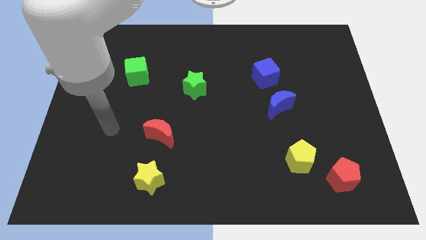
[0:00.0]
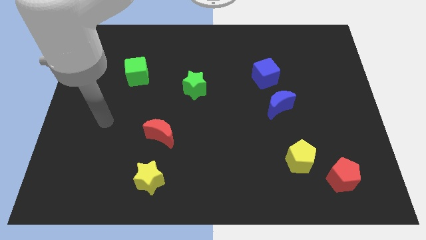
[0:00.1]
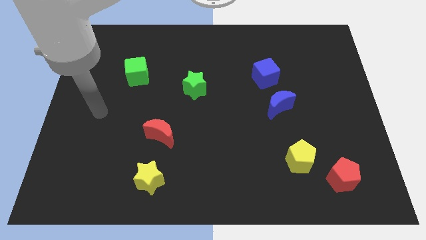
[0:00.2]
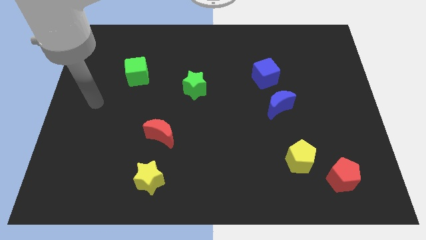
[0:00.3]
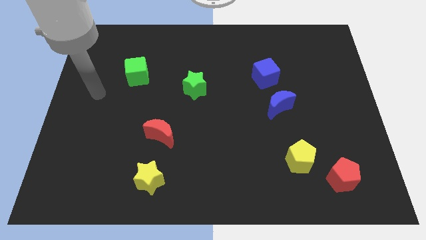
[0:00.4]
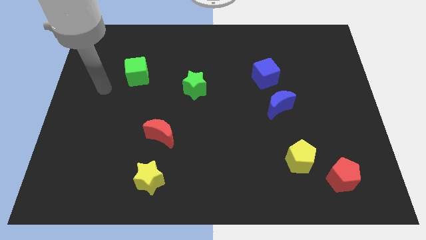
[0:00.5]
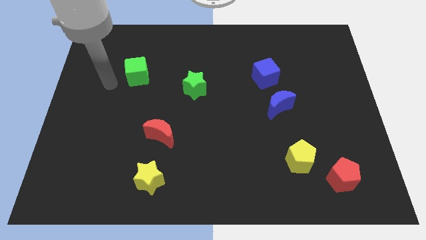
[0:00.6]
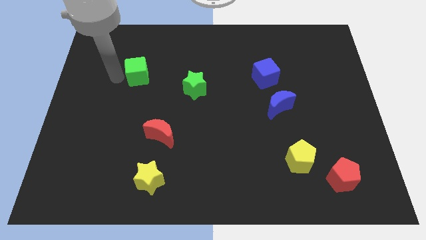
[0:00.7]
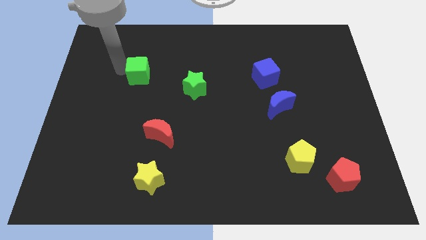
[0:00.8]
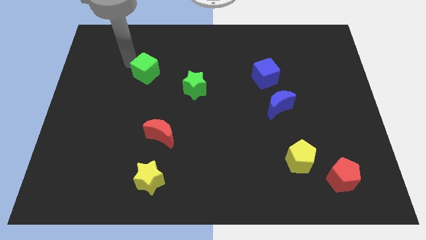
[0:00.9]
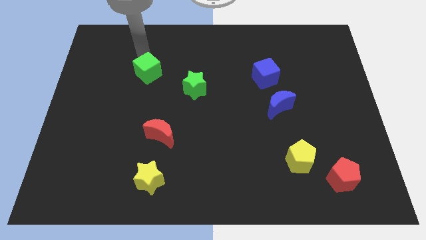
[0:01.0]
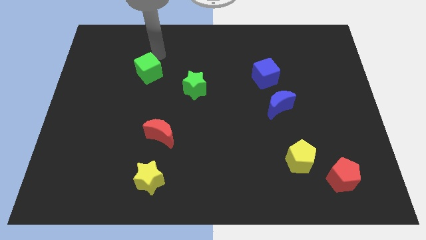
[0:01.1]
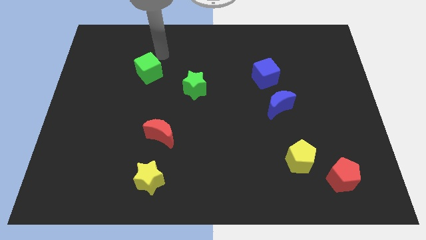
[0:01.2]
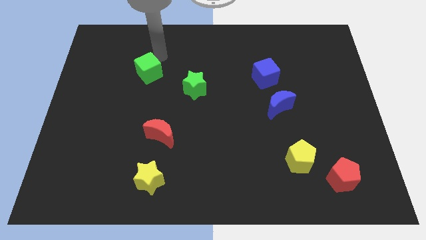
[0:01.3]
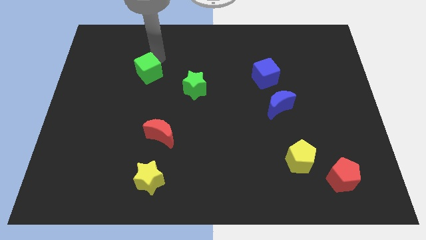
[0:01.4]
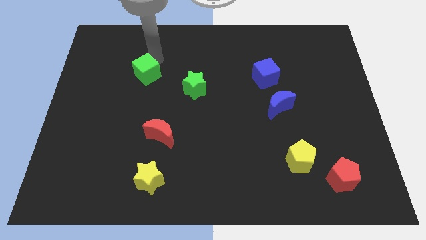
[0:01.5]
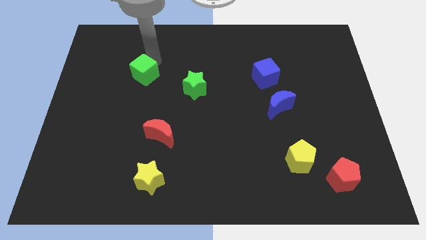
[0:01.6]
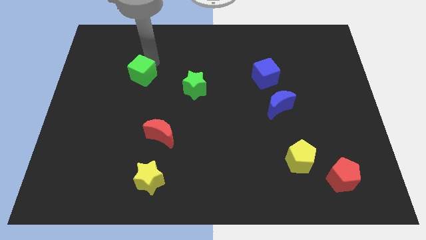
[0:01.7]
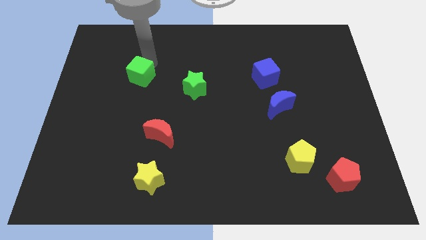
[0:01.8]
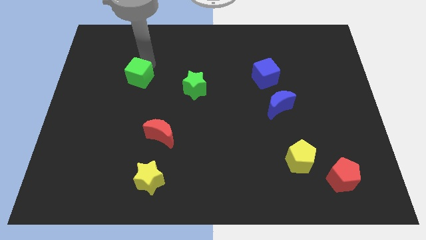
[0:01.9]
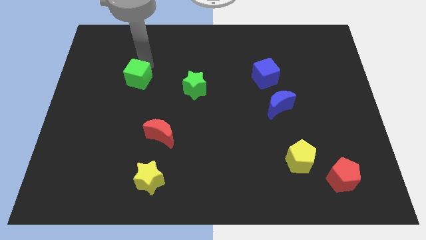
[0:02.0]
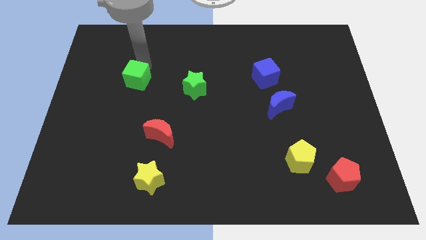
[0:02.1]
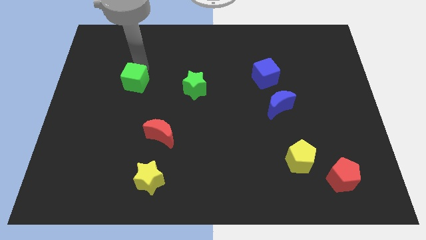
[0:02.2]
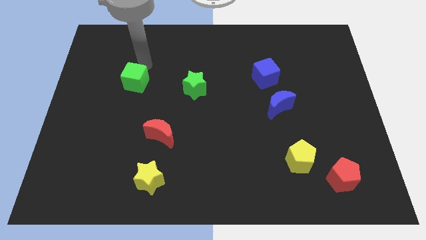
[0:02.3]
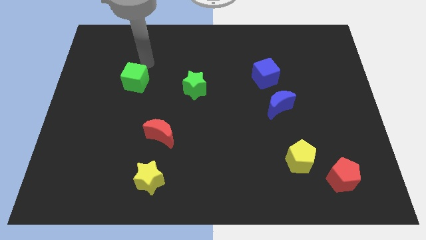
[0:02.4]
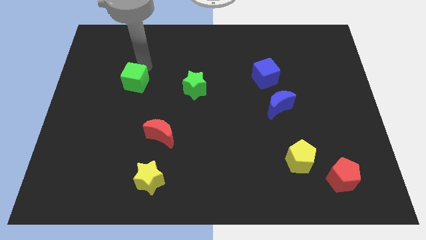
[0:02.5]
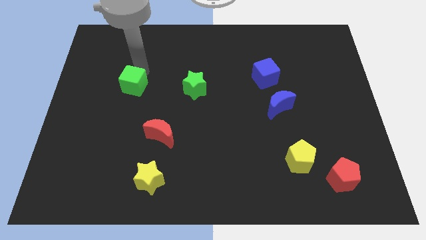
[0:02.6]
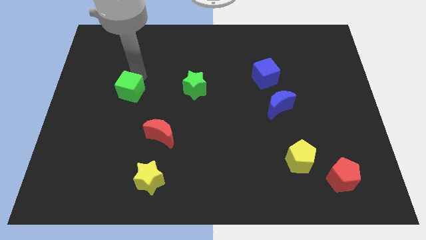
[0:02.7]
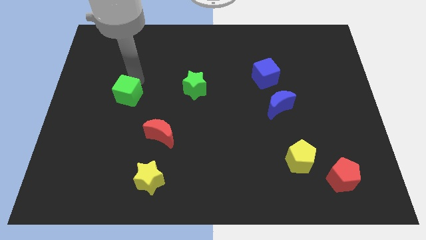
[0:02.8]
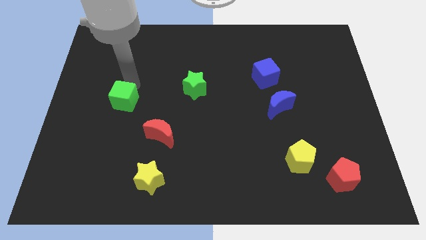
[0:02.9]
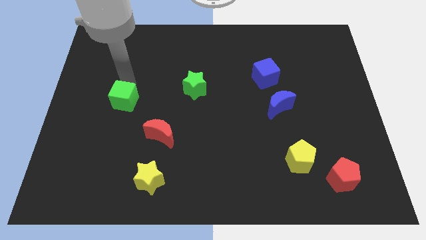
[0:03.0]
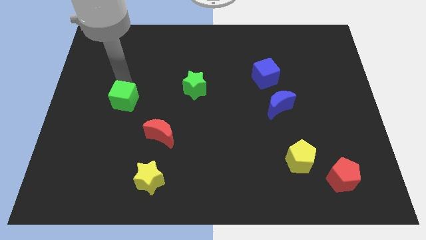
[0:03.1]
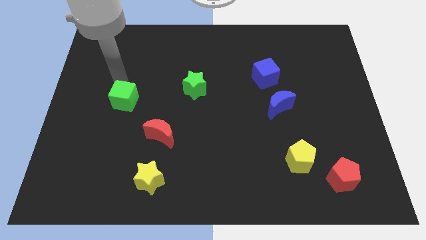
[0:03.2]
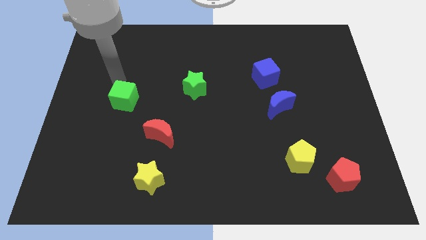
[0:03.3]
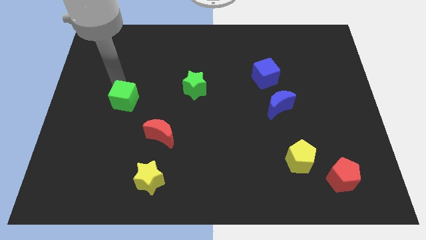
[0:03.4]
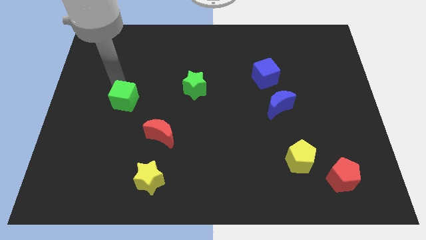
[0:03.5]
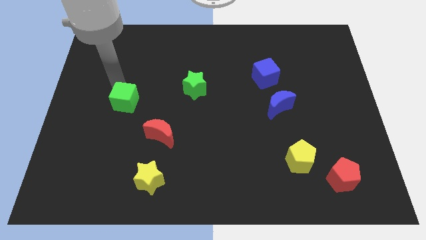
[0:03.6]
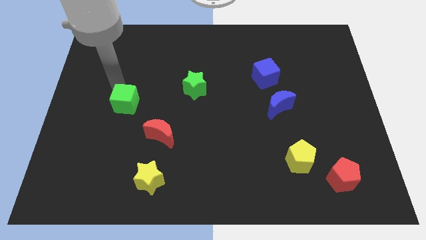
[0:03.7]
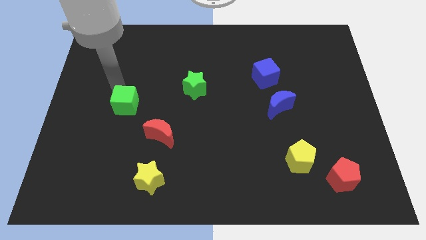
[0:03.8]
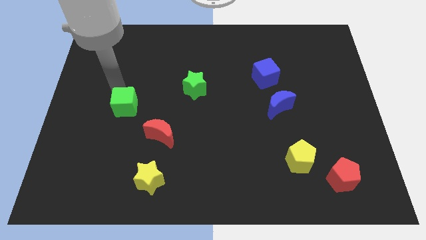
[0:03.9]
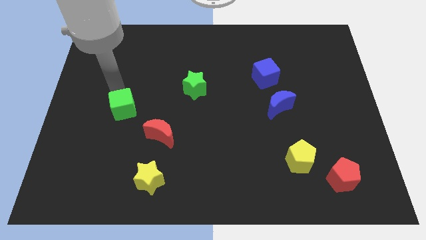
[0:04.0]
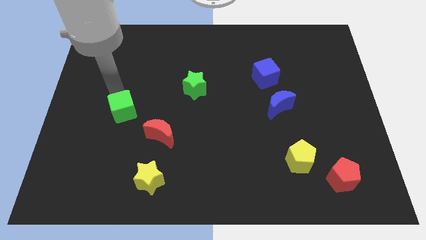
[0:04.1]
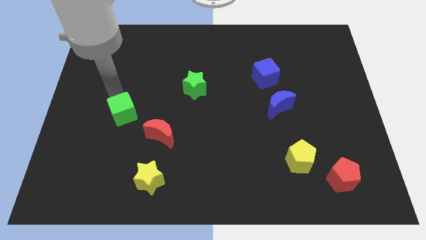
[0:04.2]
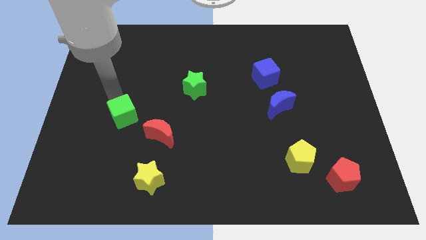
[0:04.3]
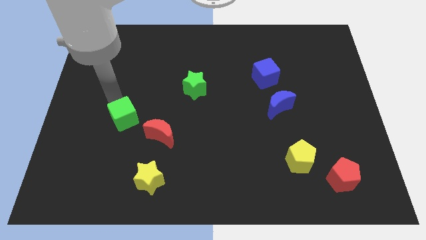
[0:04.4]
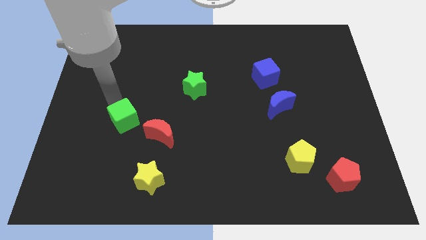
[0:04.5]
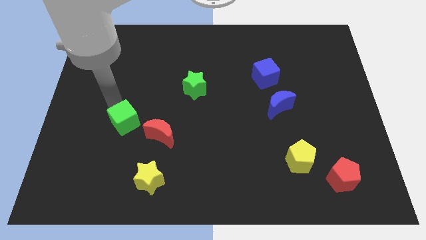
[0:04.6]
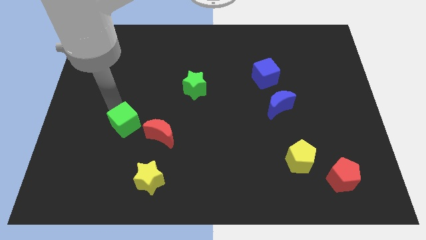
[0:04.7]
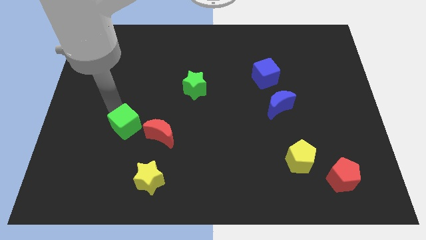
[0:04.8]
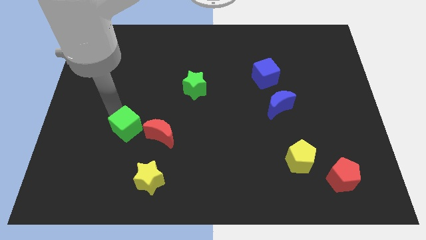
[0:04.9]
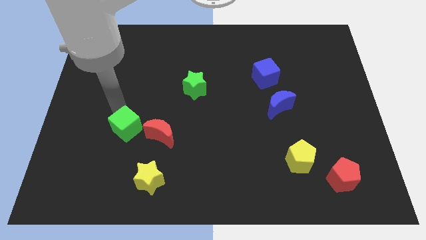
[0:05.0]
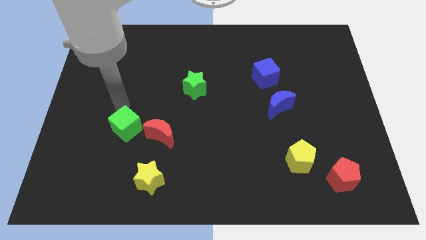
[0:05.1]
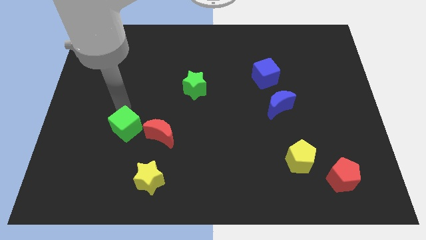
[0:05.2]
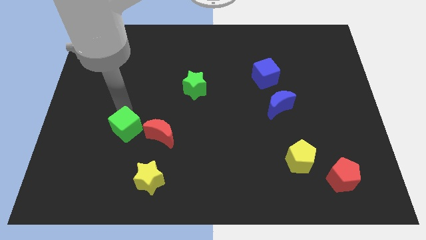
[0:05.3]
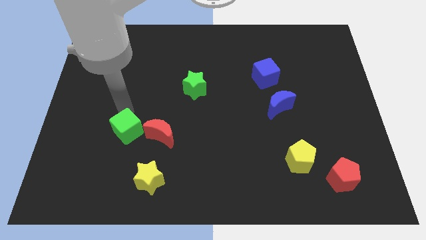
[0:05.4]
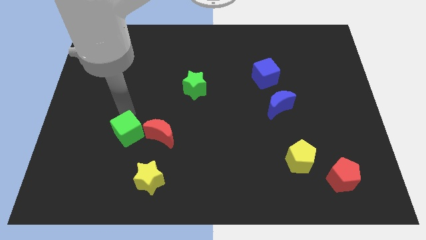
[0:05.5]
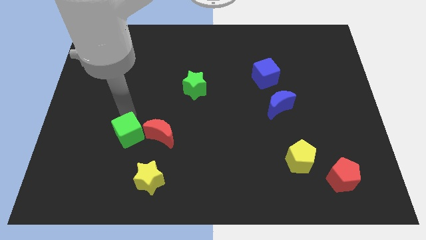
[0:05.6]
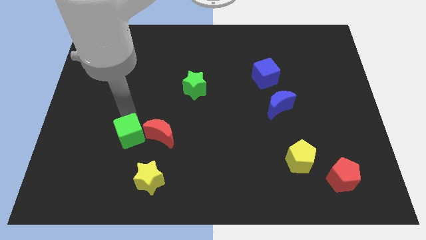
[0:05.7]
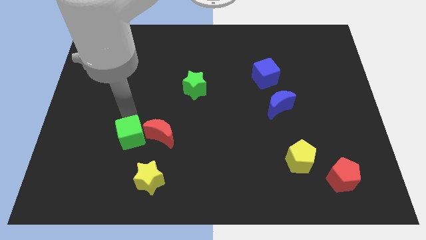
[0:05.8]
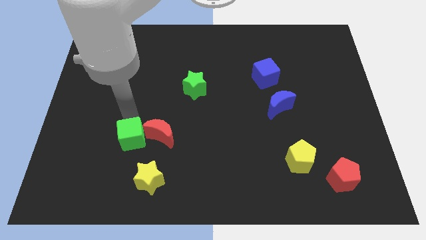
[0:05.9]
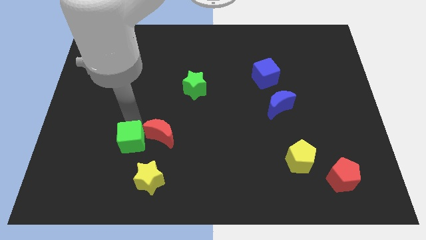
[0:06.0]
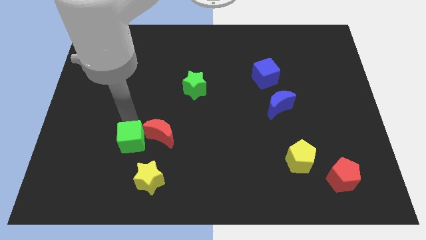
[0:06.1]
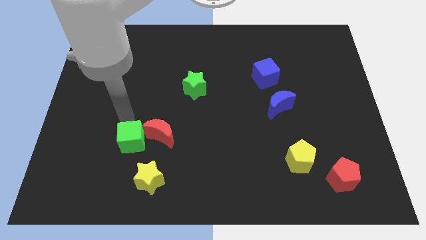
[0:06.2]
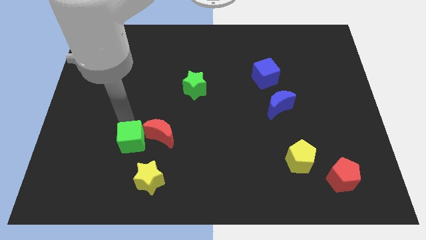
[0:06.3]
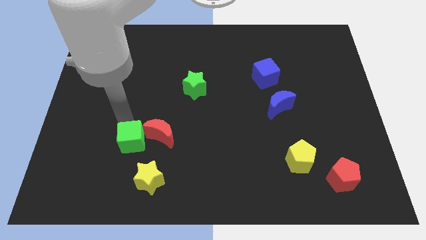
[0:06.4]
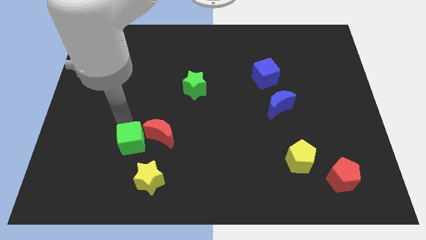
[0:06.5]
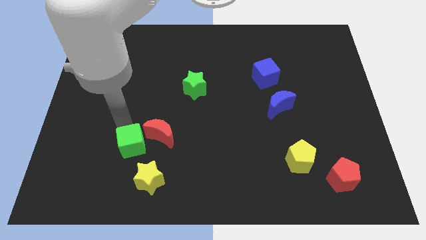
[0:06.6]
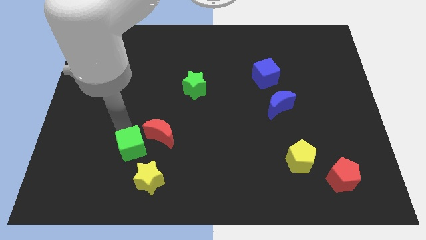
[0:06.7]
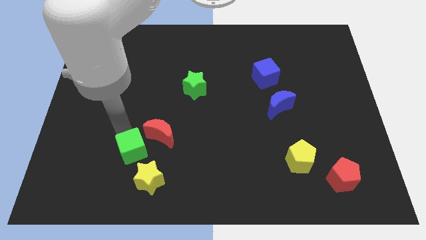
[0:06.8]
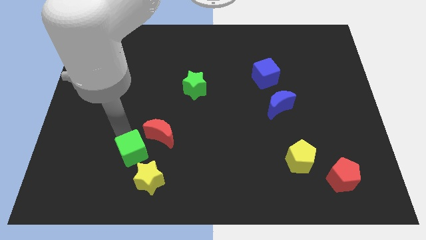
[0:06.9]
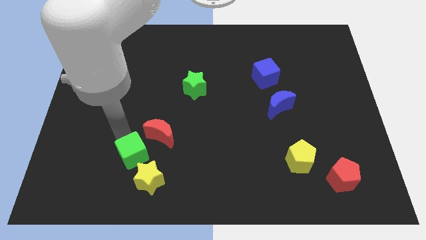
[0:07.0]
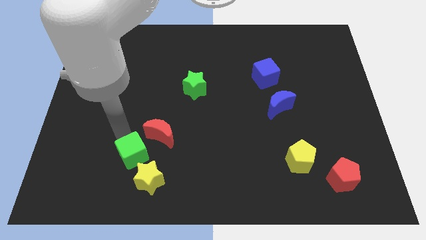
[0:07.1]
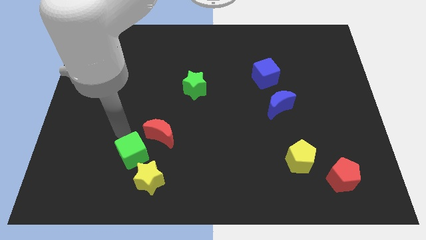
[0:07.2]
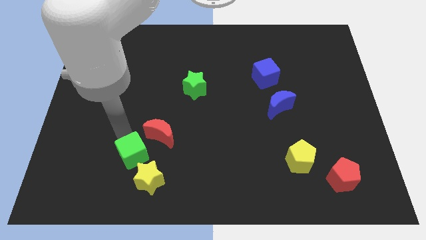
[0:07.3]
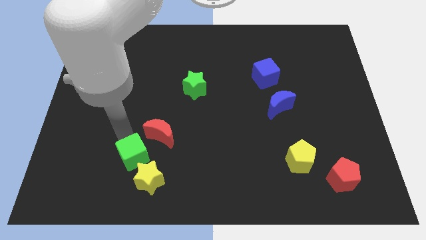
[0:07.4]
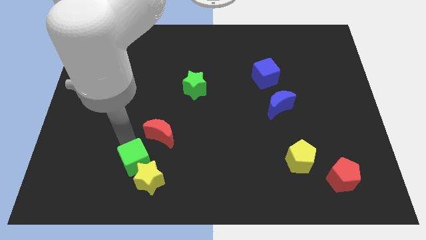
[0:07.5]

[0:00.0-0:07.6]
put the green cube next to the yellow star
